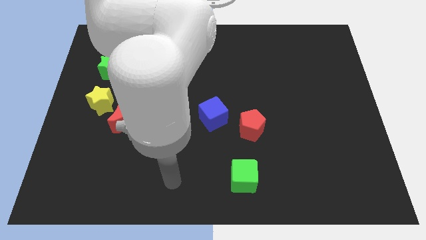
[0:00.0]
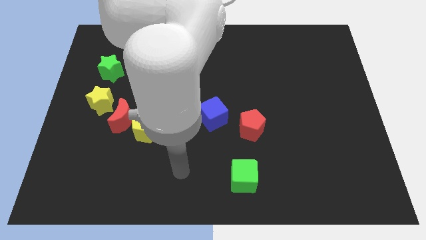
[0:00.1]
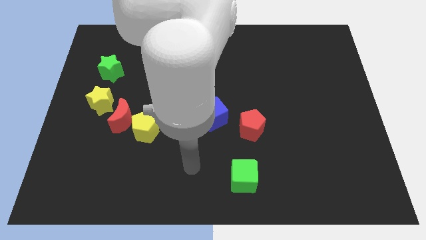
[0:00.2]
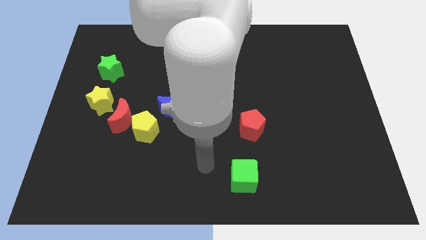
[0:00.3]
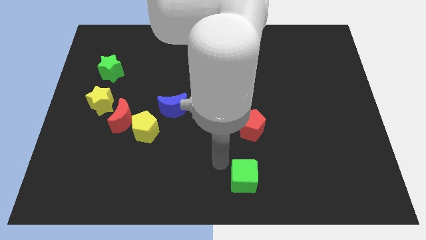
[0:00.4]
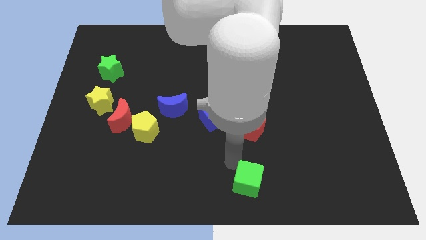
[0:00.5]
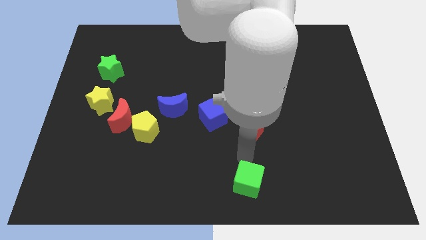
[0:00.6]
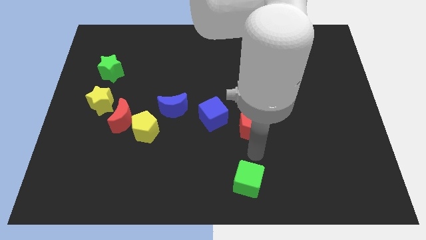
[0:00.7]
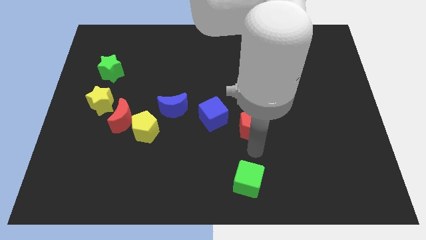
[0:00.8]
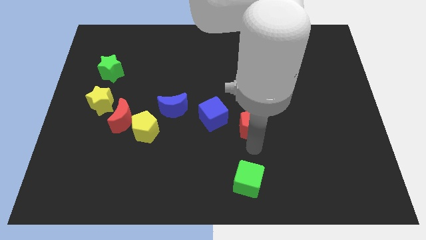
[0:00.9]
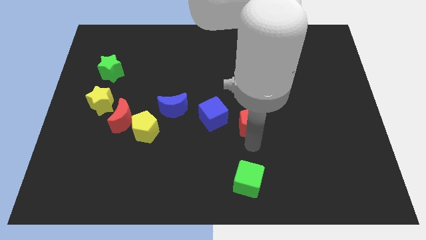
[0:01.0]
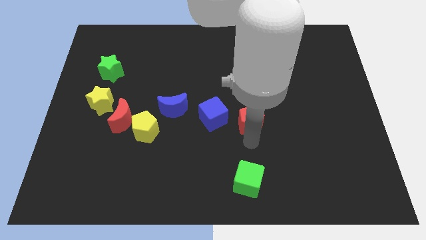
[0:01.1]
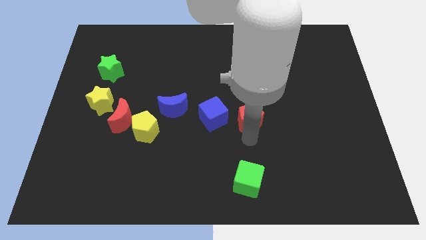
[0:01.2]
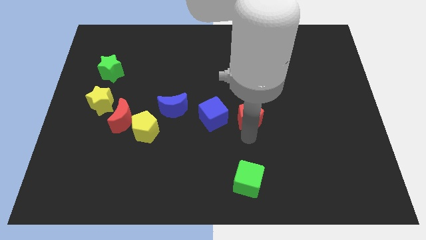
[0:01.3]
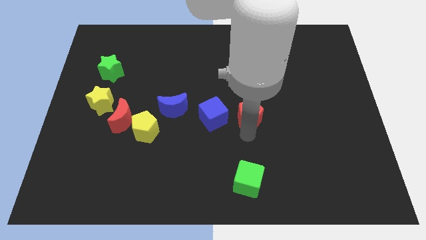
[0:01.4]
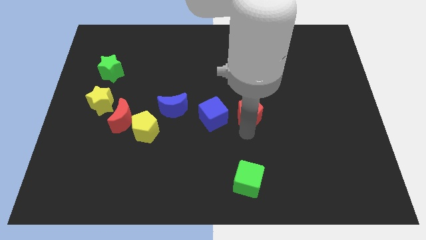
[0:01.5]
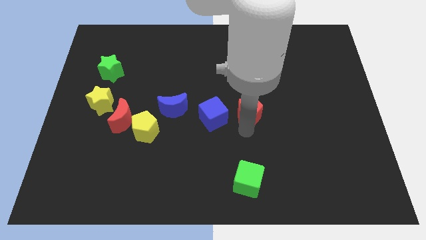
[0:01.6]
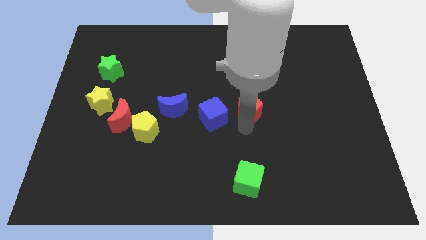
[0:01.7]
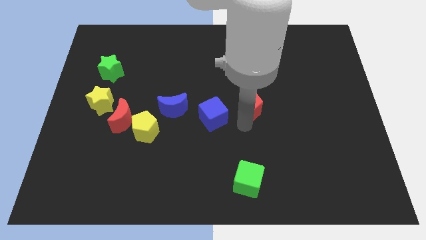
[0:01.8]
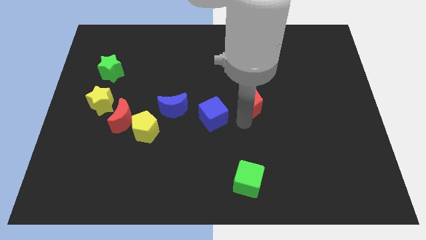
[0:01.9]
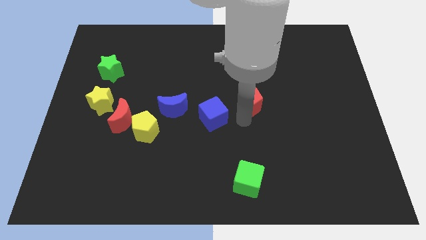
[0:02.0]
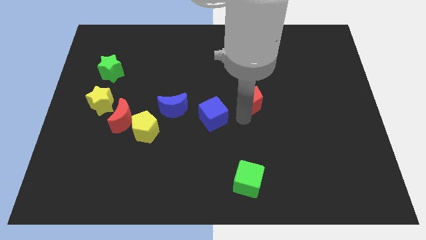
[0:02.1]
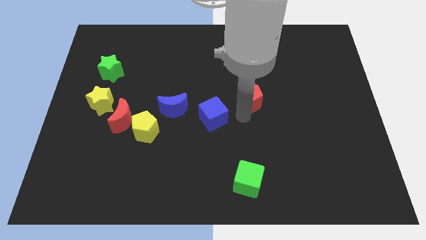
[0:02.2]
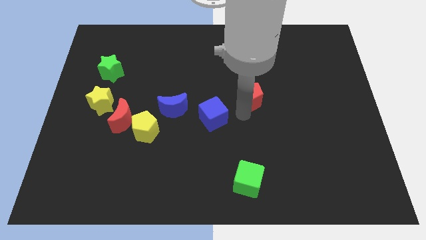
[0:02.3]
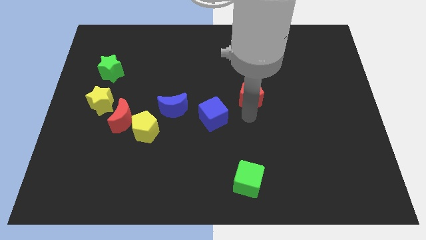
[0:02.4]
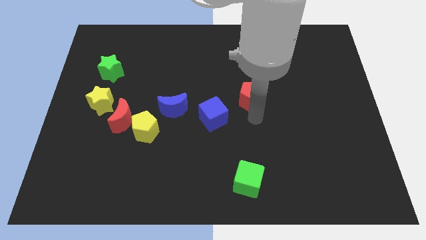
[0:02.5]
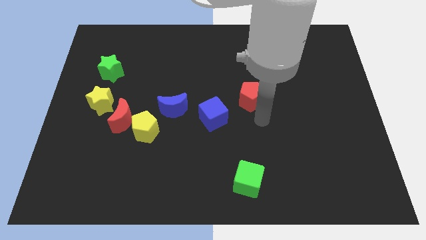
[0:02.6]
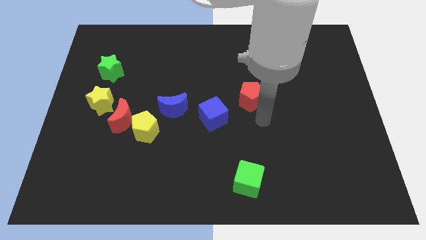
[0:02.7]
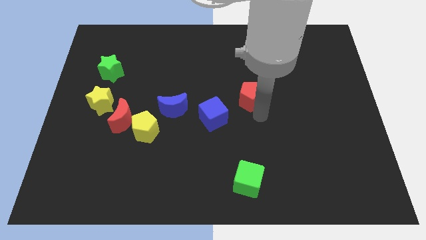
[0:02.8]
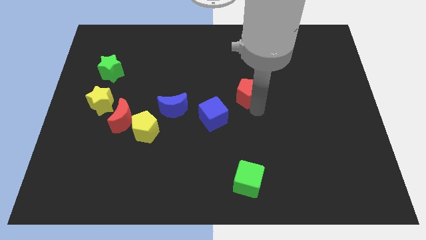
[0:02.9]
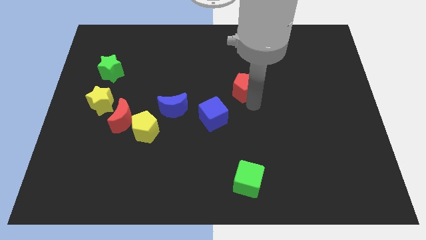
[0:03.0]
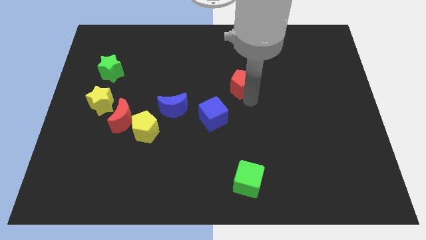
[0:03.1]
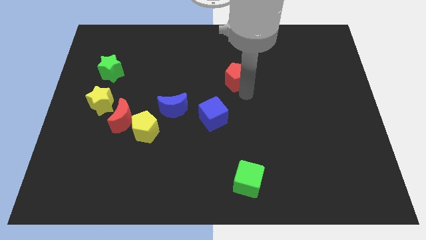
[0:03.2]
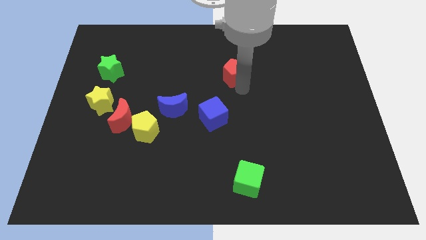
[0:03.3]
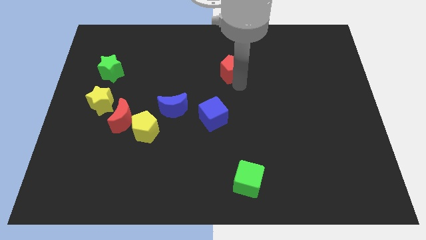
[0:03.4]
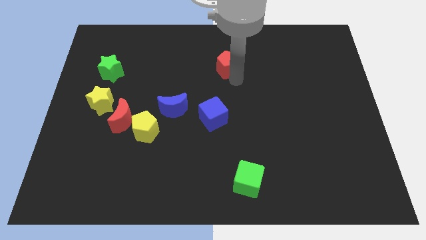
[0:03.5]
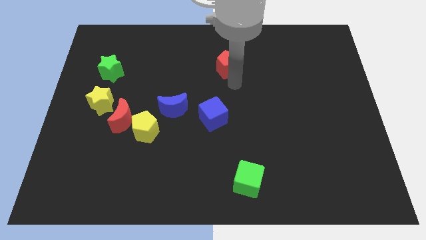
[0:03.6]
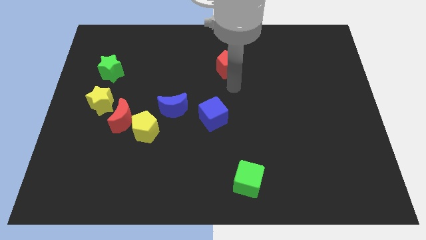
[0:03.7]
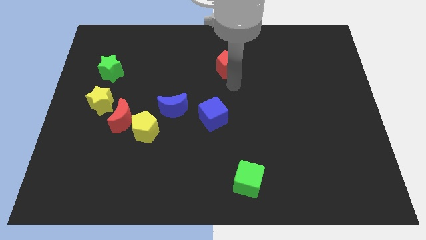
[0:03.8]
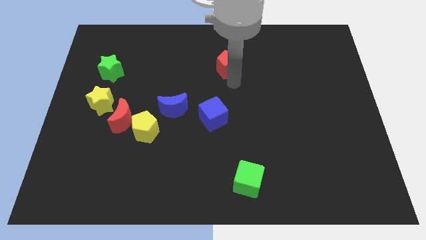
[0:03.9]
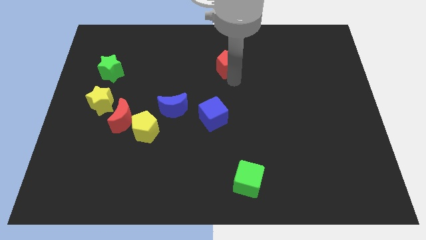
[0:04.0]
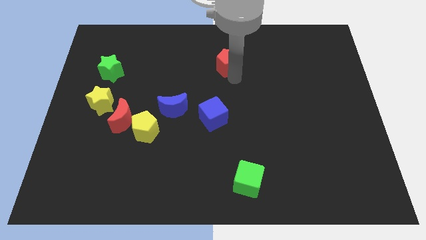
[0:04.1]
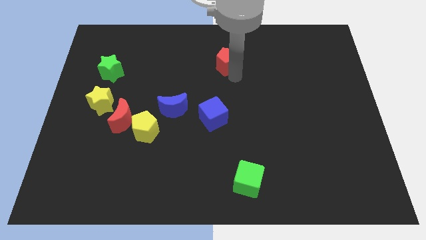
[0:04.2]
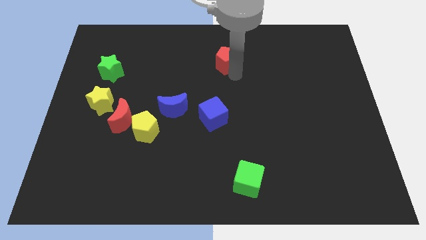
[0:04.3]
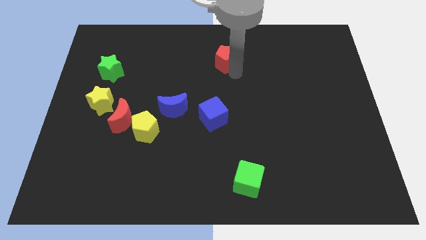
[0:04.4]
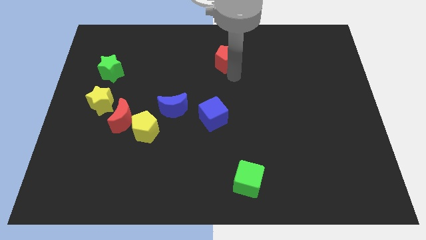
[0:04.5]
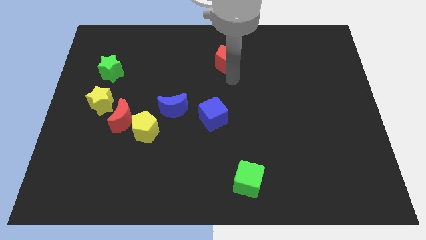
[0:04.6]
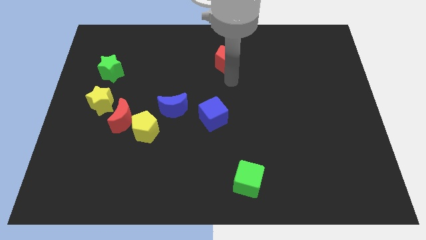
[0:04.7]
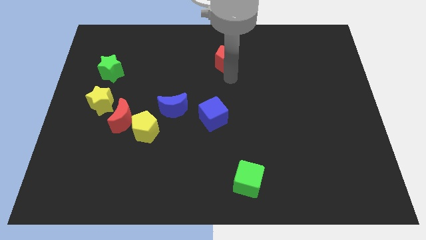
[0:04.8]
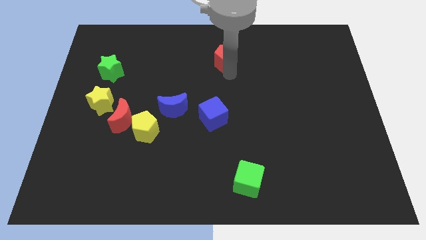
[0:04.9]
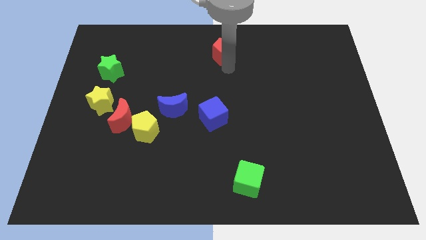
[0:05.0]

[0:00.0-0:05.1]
slide the red pentagon to the top

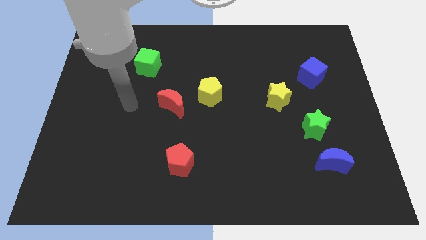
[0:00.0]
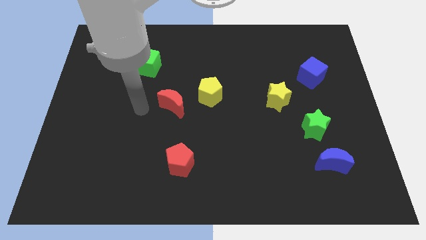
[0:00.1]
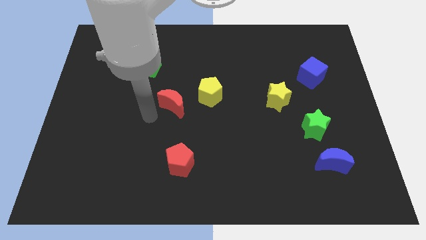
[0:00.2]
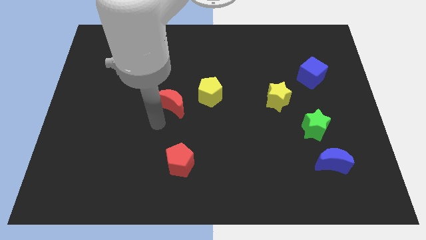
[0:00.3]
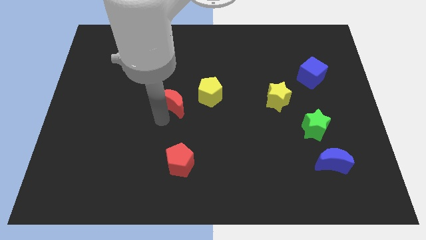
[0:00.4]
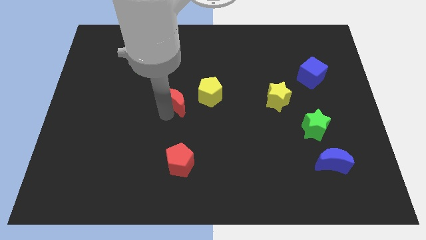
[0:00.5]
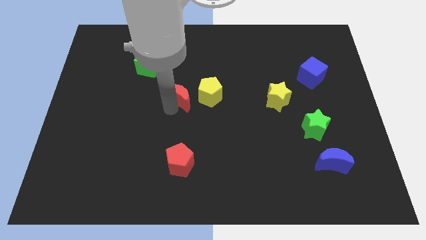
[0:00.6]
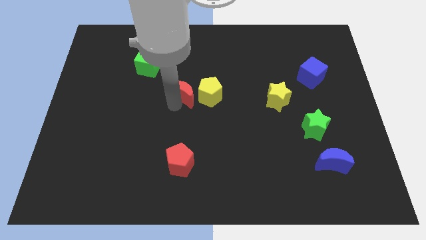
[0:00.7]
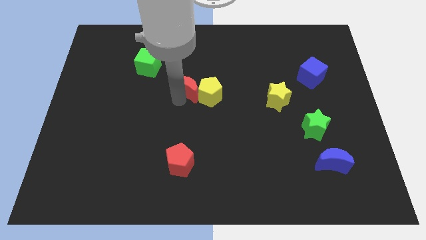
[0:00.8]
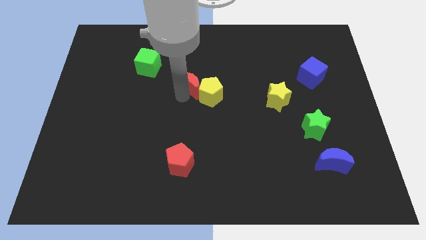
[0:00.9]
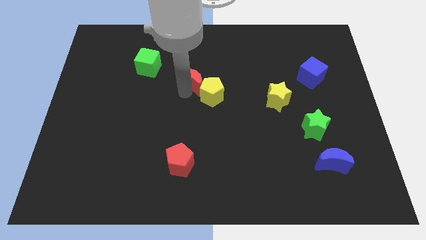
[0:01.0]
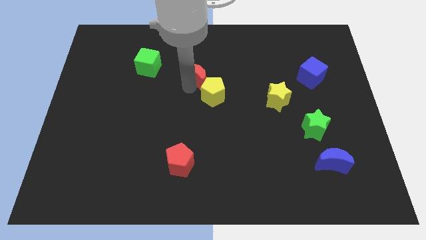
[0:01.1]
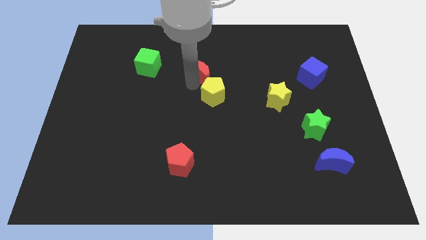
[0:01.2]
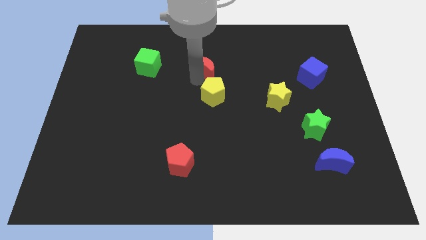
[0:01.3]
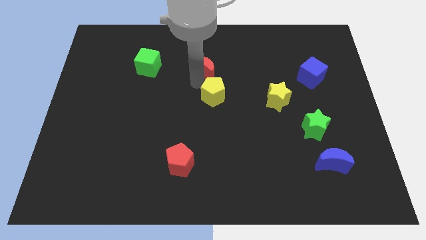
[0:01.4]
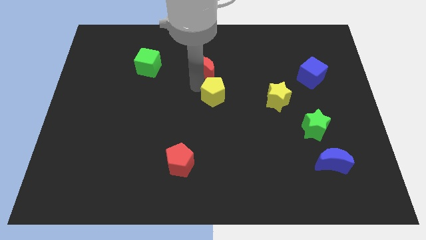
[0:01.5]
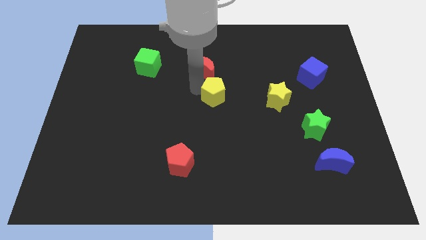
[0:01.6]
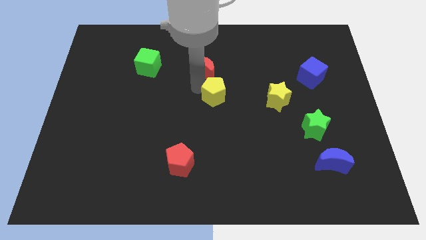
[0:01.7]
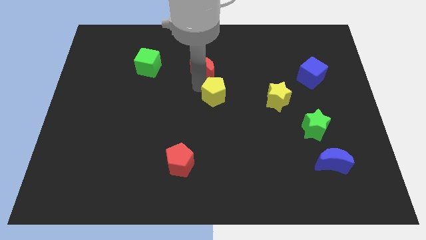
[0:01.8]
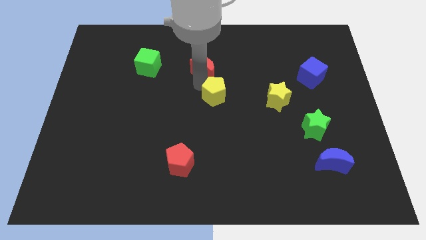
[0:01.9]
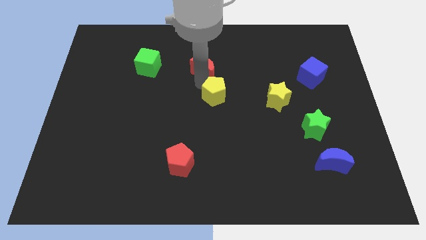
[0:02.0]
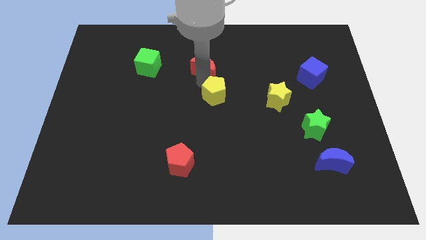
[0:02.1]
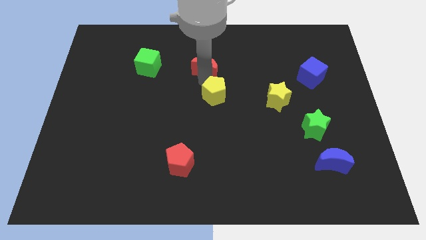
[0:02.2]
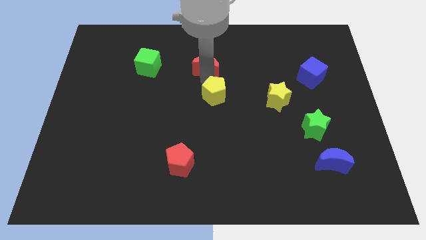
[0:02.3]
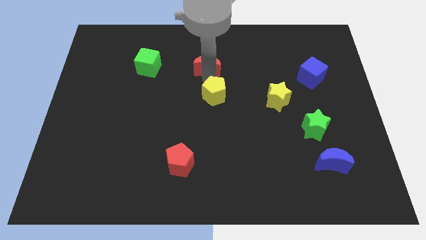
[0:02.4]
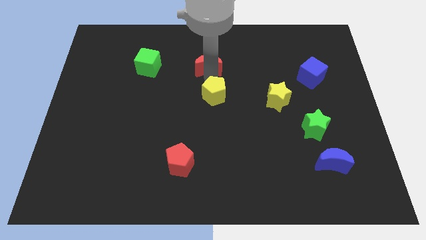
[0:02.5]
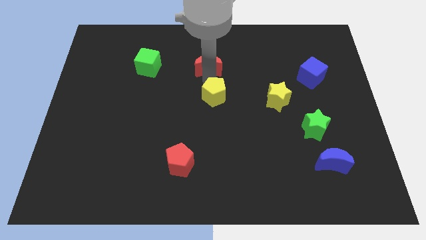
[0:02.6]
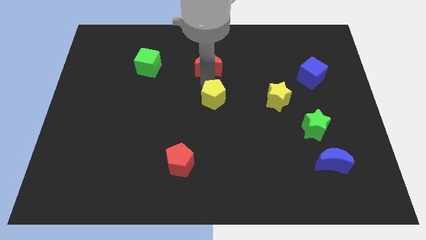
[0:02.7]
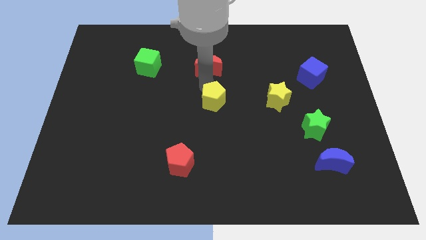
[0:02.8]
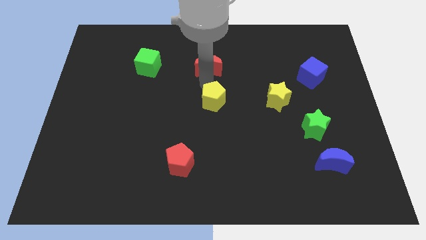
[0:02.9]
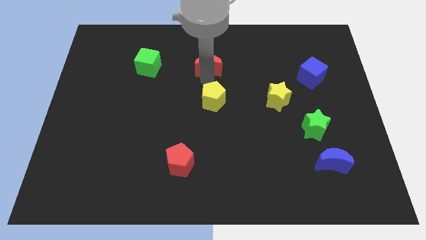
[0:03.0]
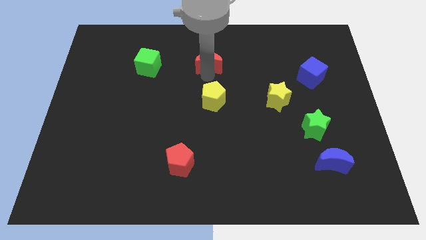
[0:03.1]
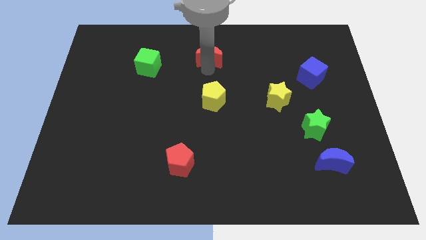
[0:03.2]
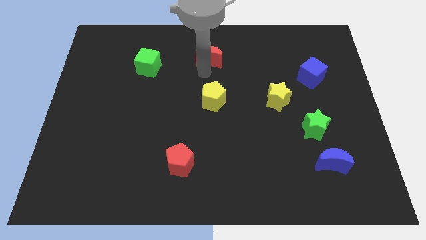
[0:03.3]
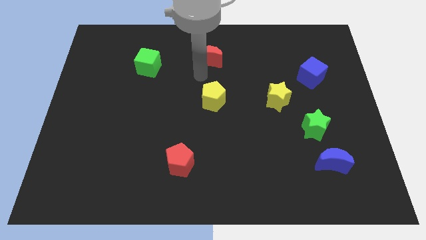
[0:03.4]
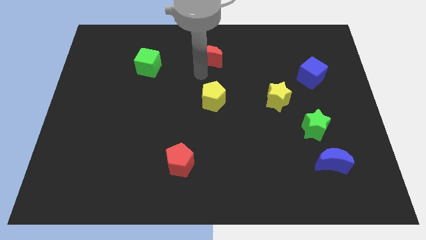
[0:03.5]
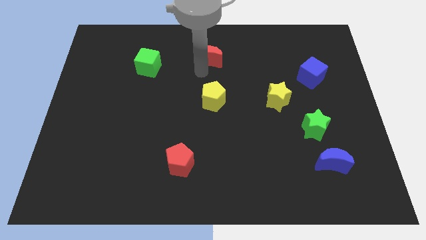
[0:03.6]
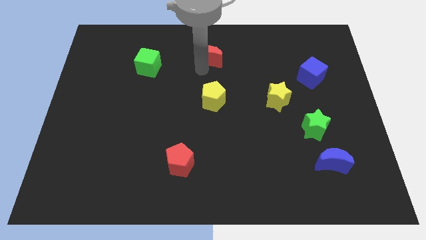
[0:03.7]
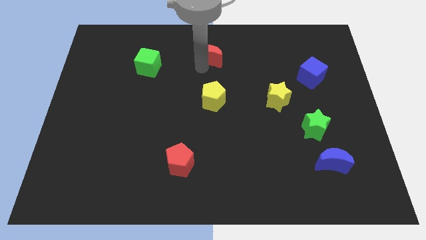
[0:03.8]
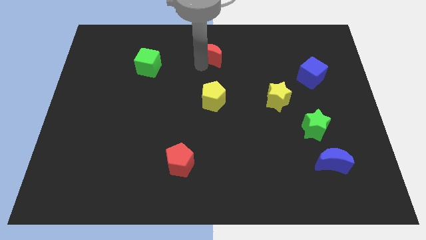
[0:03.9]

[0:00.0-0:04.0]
slide the red moon to the top side
